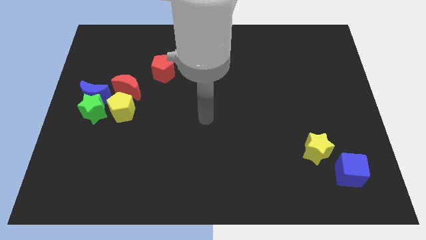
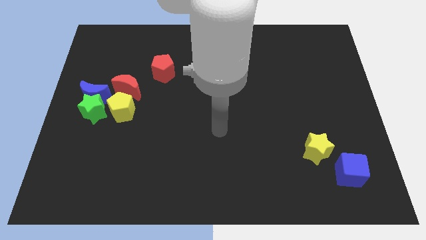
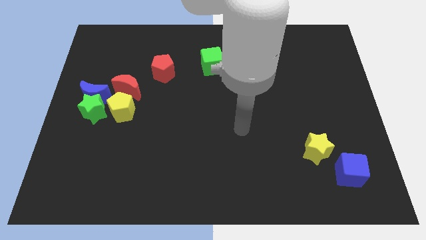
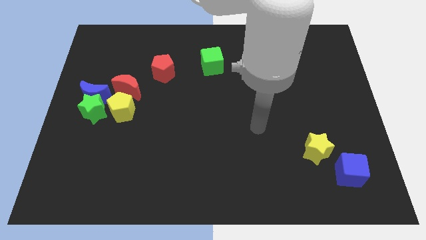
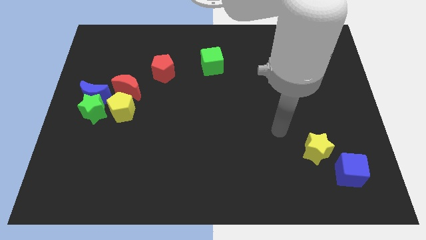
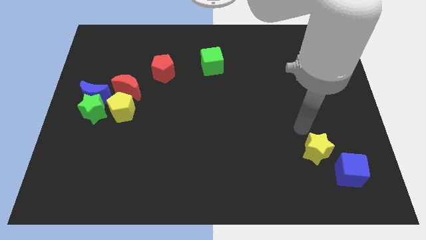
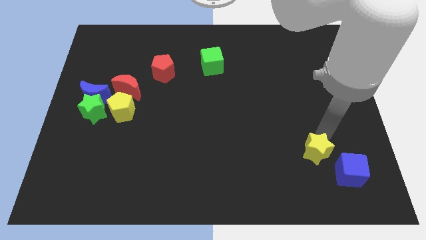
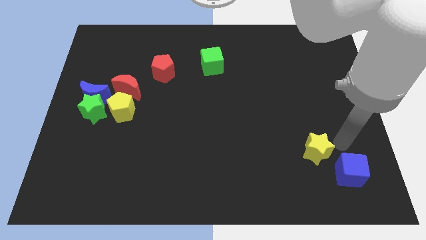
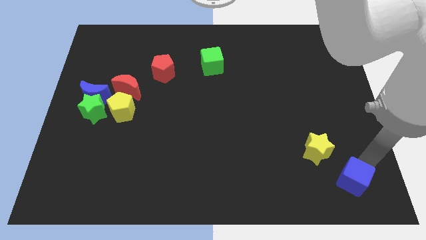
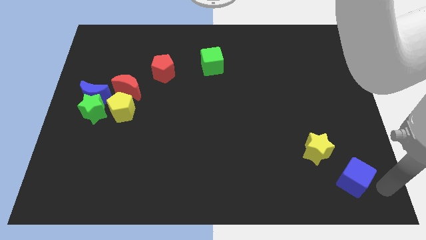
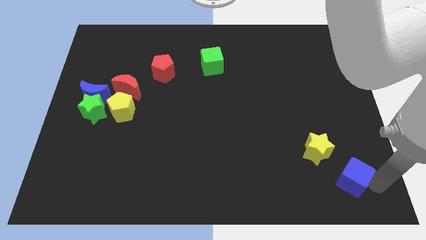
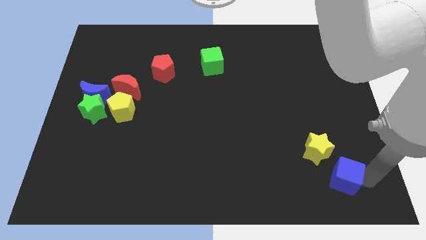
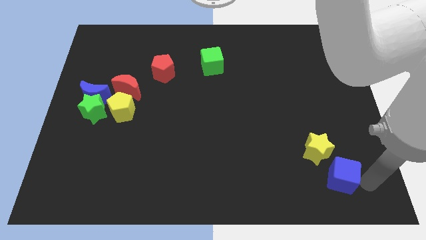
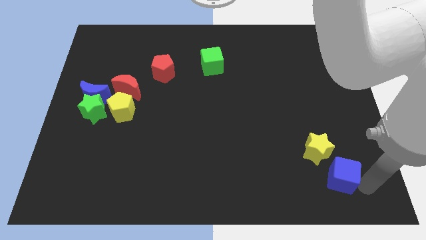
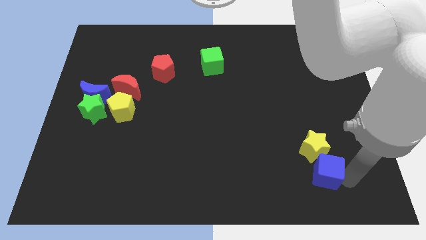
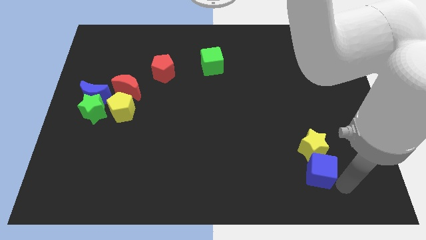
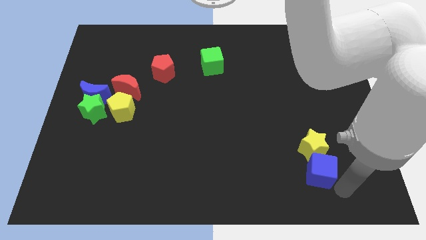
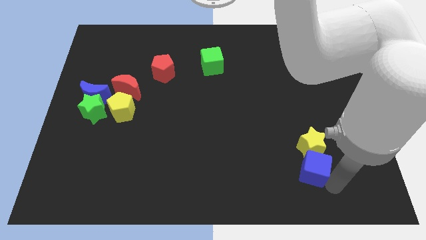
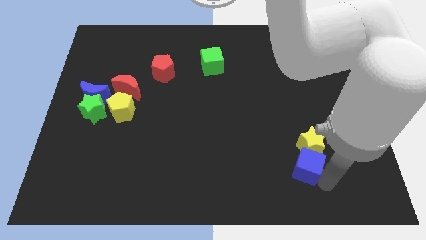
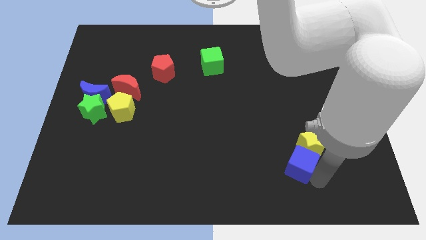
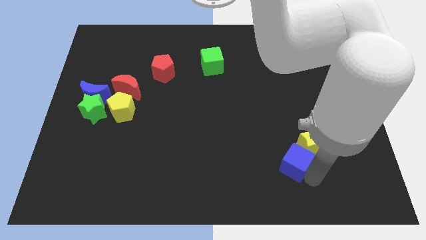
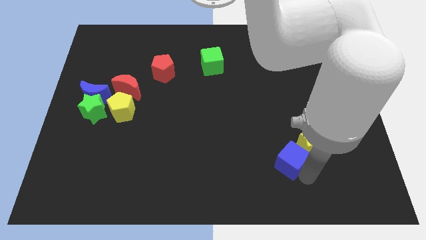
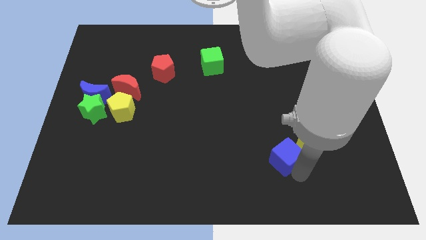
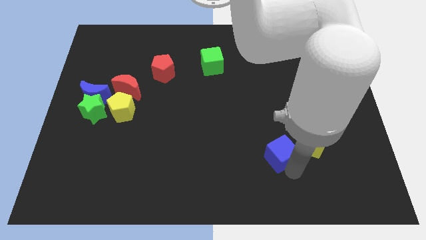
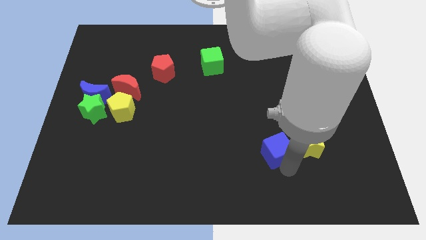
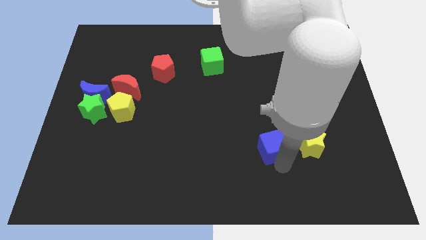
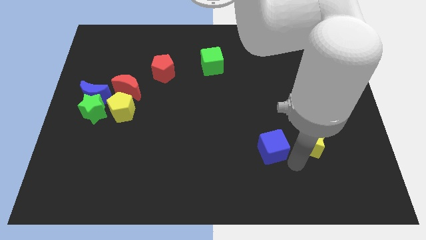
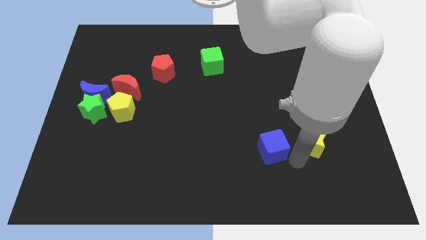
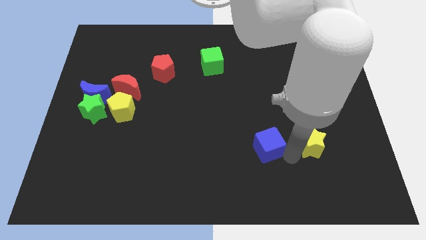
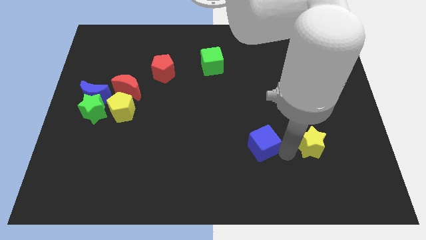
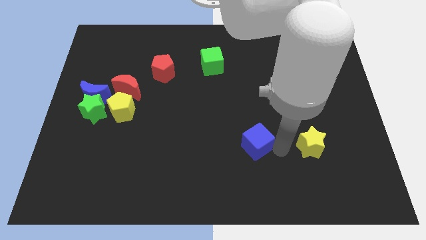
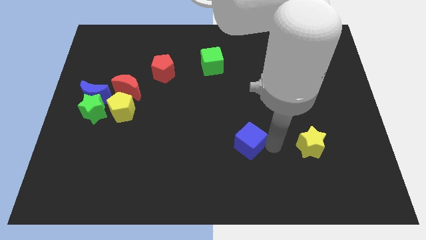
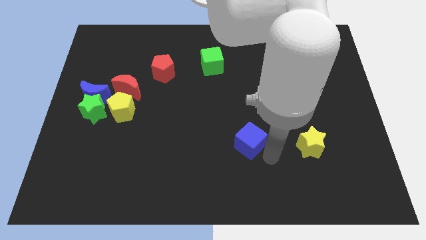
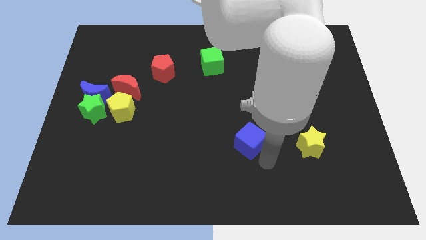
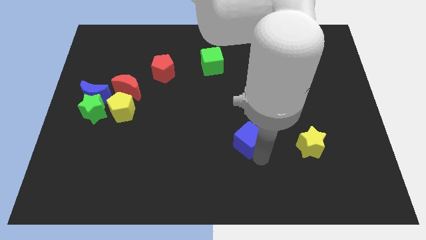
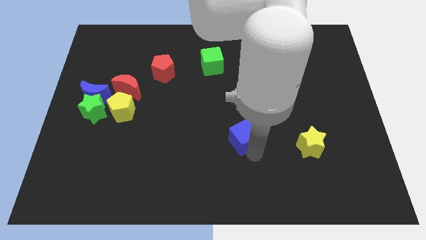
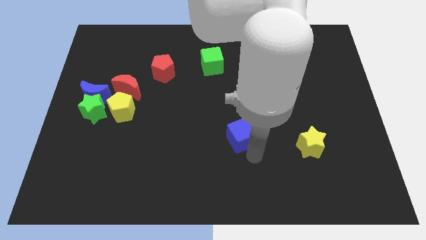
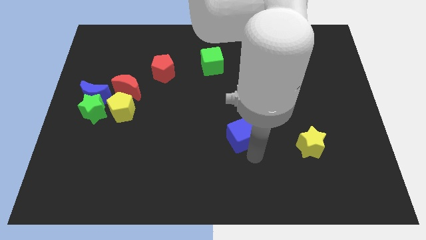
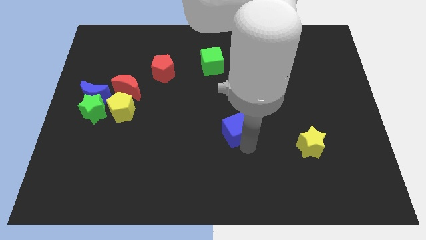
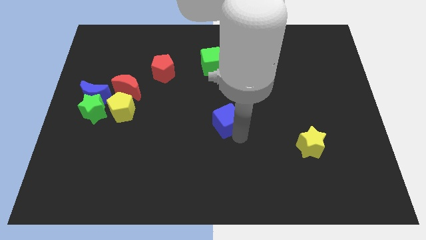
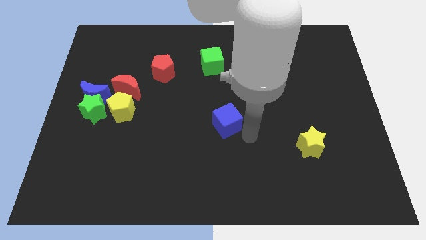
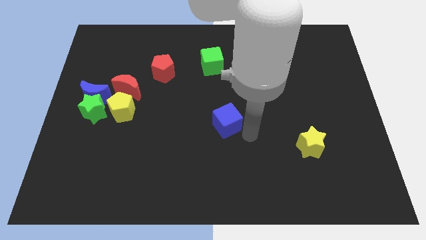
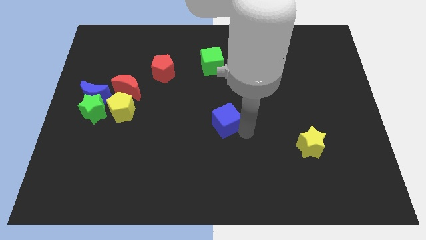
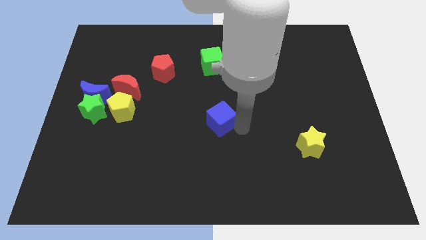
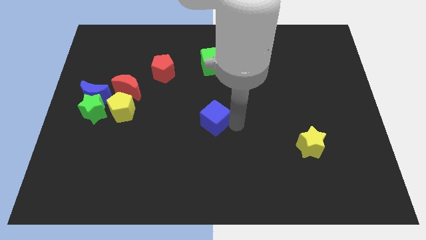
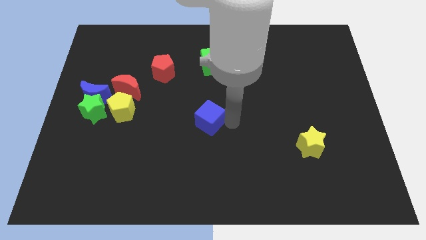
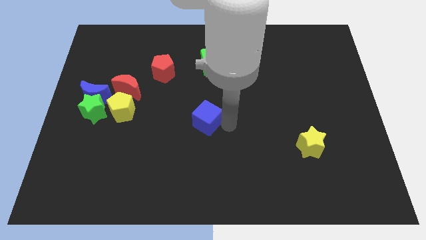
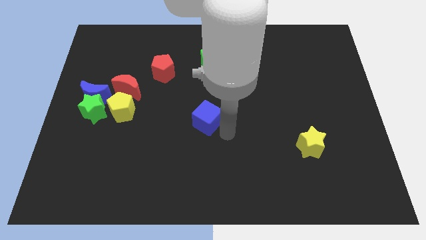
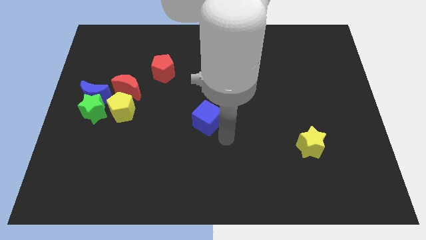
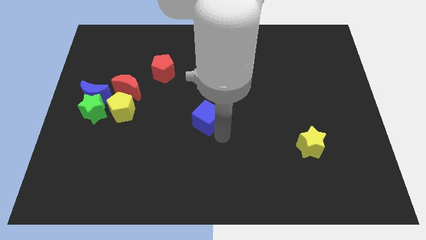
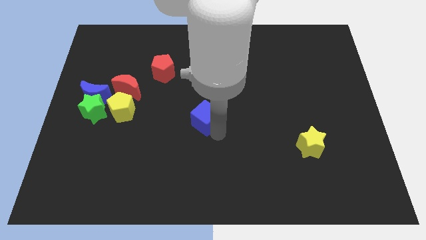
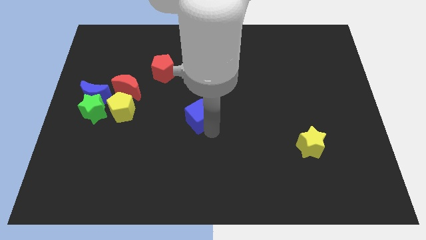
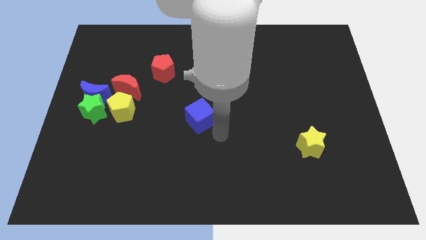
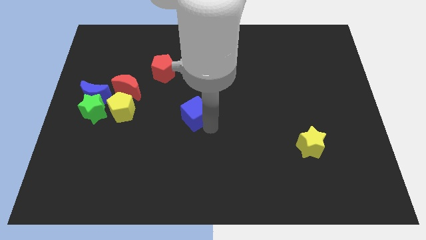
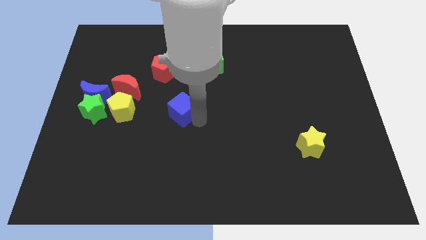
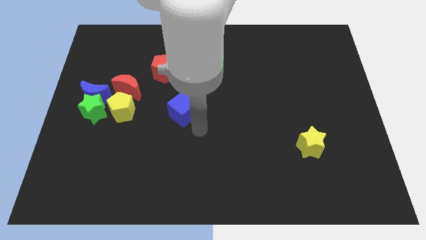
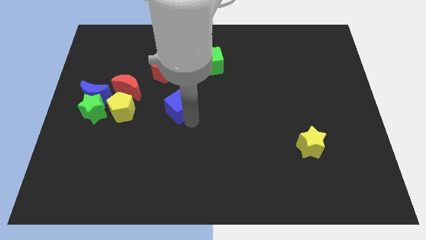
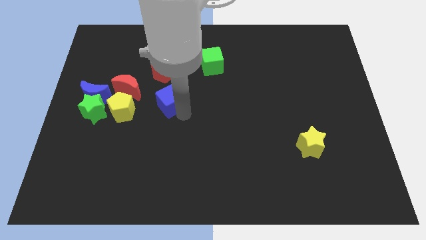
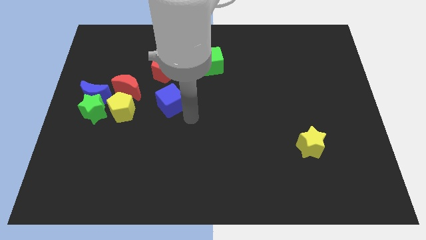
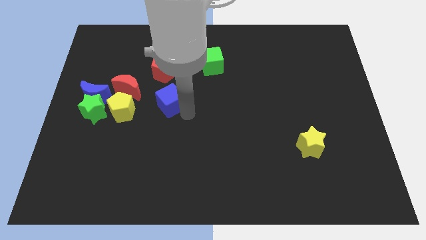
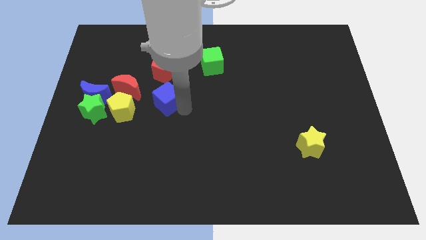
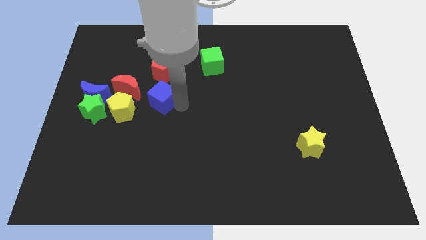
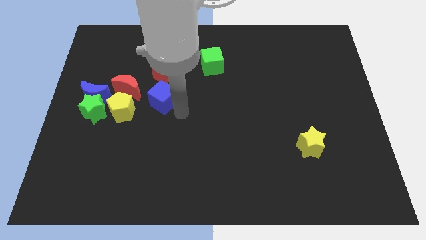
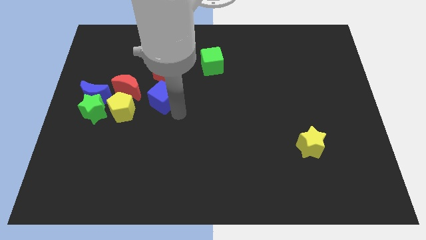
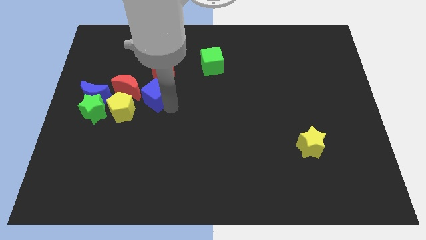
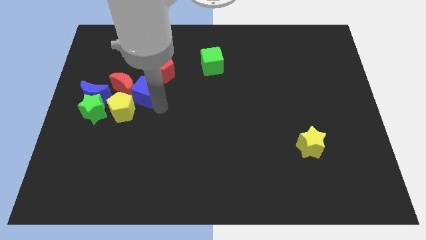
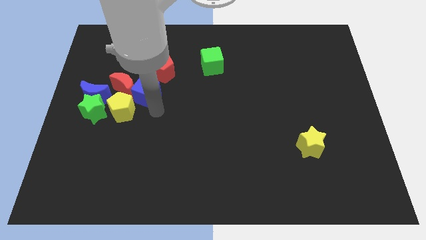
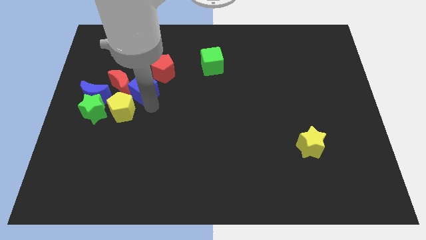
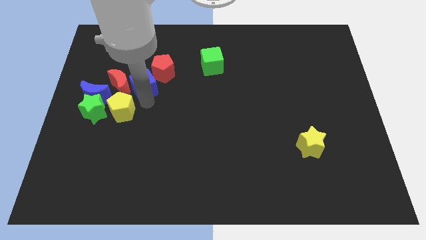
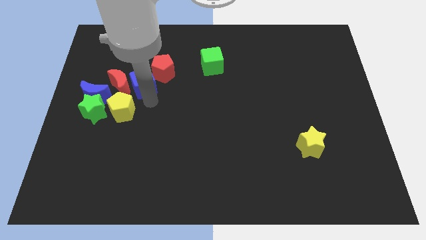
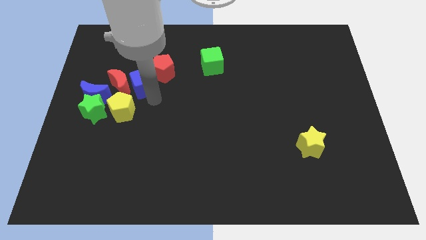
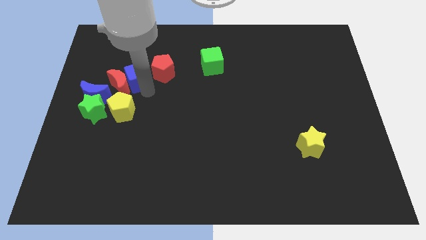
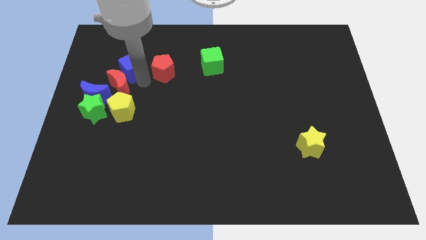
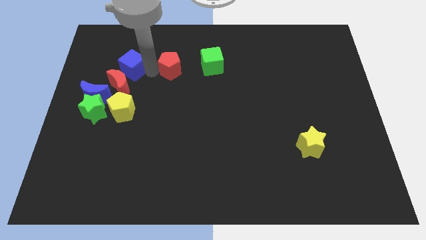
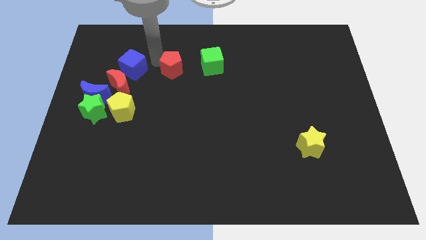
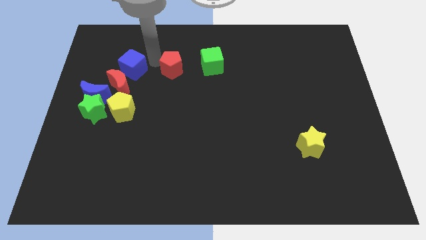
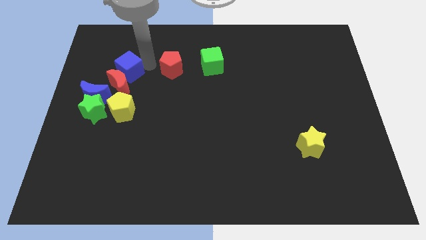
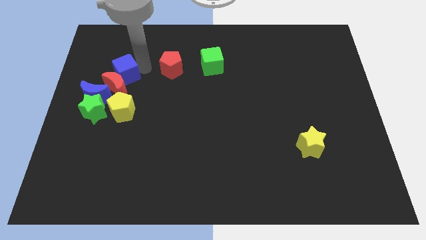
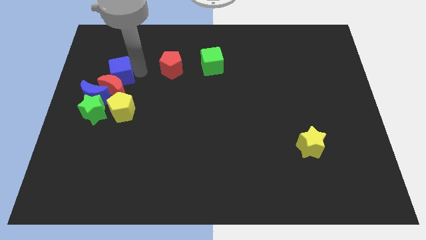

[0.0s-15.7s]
push the blue cube above the green star
